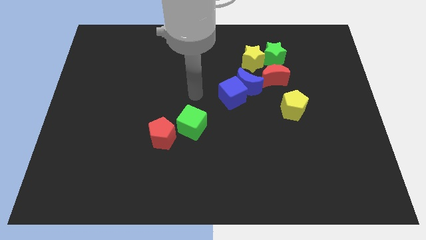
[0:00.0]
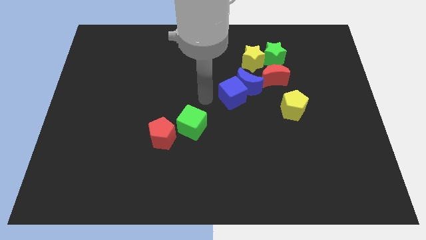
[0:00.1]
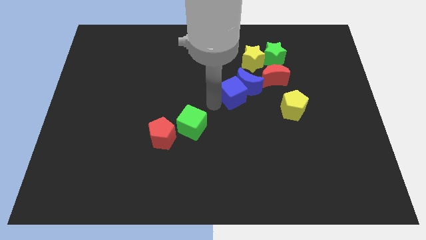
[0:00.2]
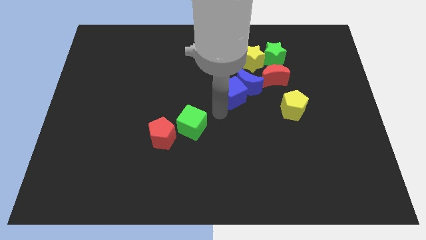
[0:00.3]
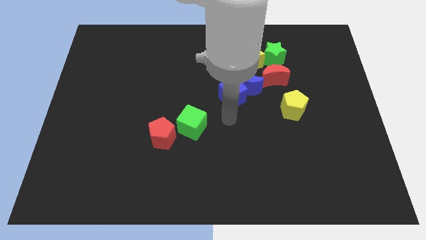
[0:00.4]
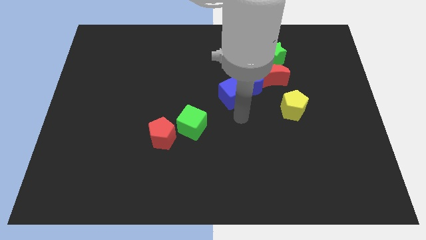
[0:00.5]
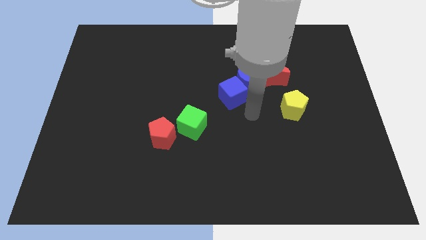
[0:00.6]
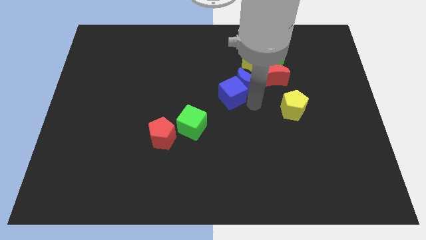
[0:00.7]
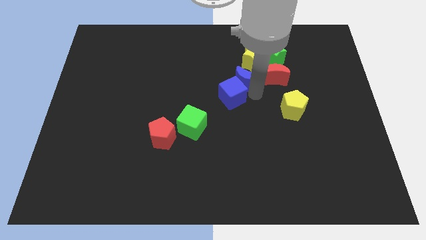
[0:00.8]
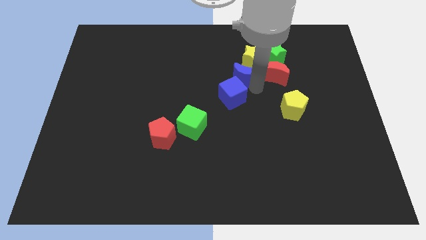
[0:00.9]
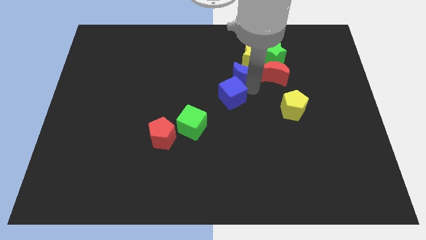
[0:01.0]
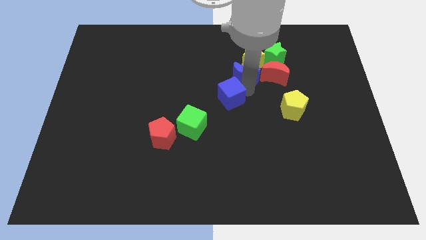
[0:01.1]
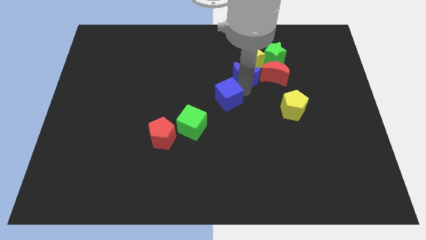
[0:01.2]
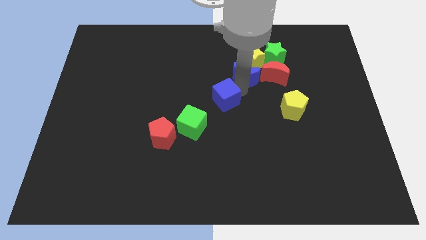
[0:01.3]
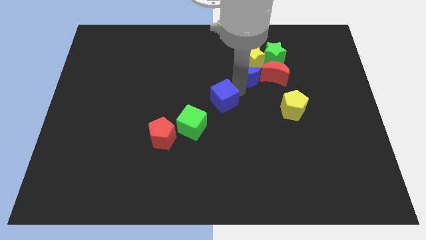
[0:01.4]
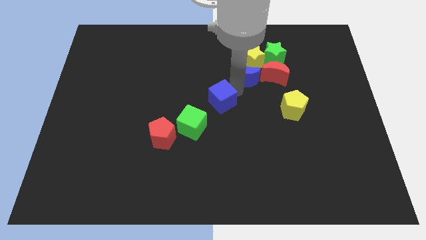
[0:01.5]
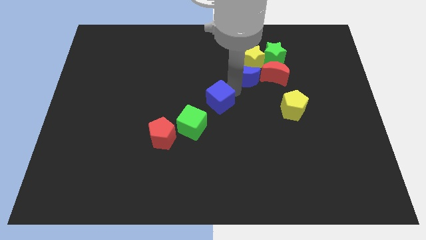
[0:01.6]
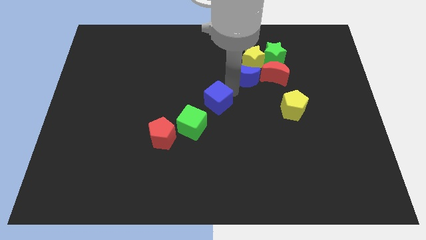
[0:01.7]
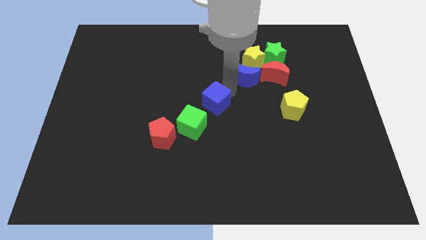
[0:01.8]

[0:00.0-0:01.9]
move the blue cube away from the blue moon

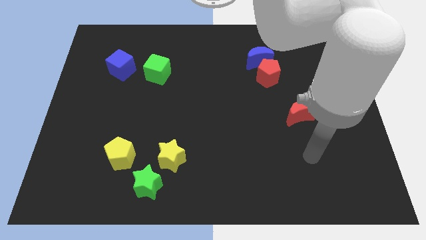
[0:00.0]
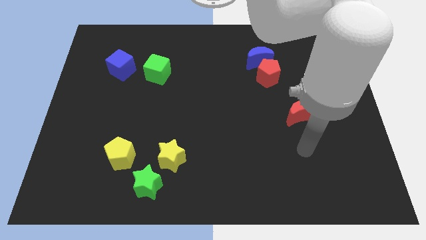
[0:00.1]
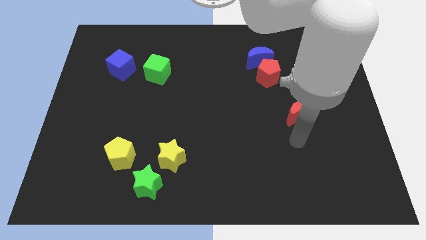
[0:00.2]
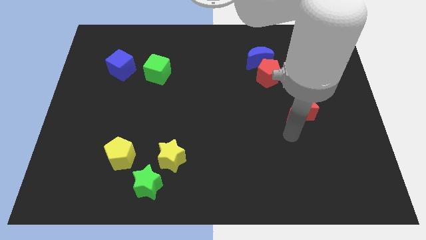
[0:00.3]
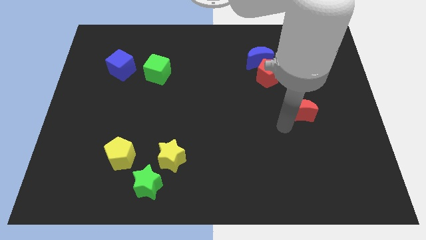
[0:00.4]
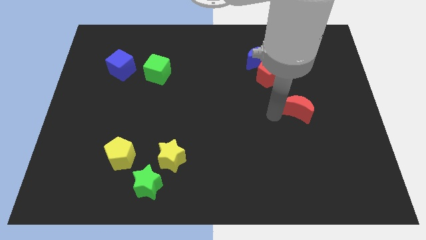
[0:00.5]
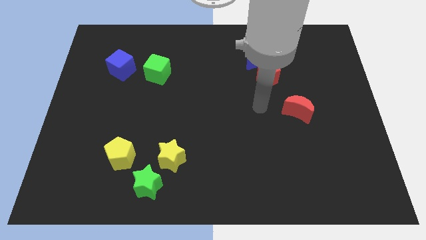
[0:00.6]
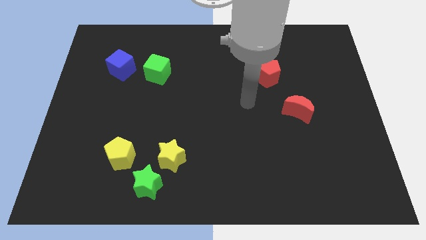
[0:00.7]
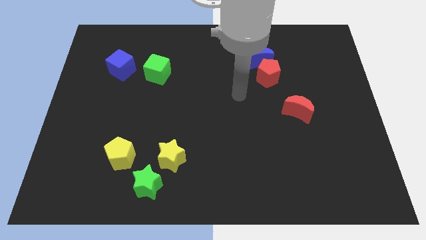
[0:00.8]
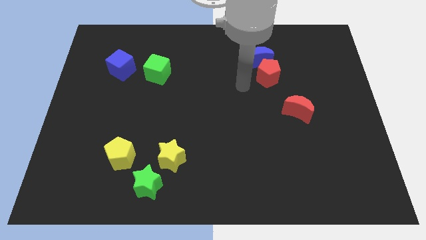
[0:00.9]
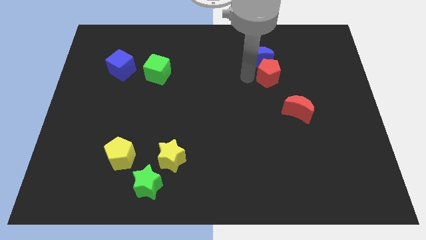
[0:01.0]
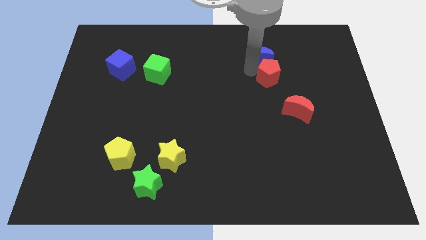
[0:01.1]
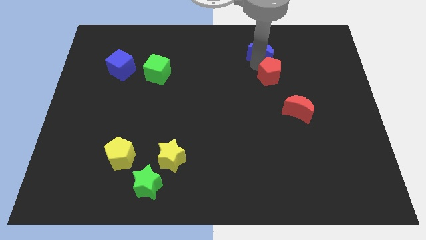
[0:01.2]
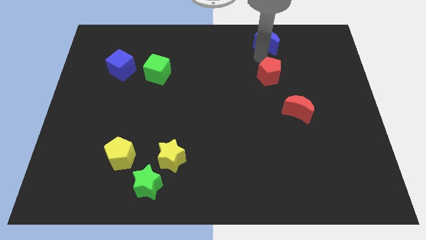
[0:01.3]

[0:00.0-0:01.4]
pull the red pentagon apart from the blue moon

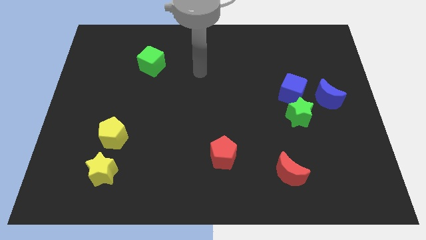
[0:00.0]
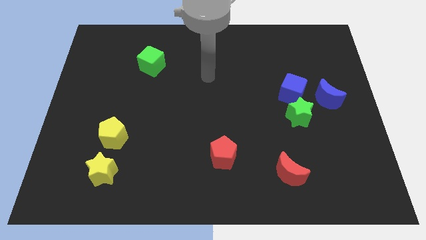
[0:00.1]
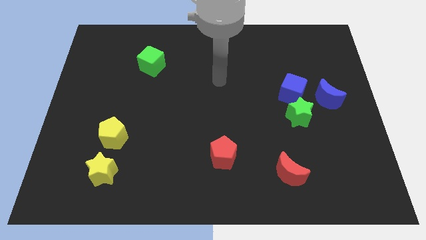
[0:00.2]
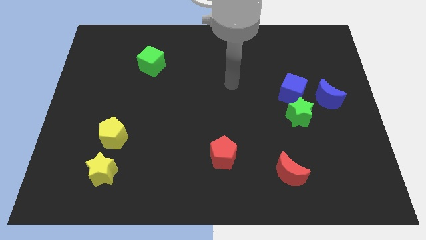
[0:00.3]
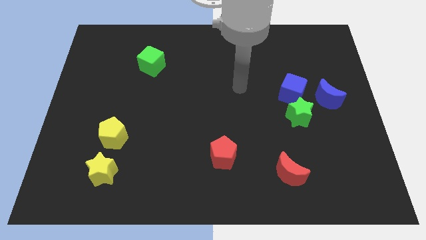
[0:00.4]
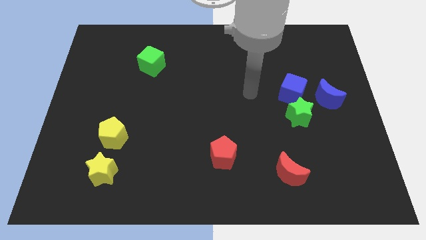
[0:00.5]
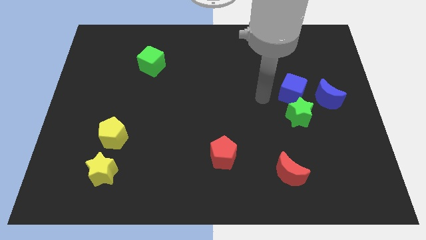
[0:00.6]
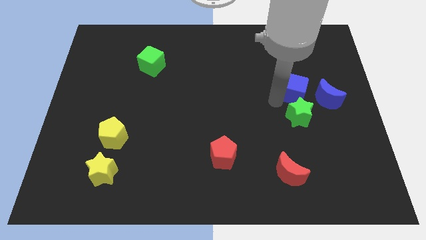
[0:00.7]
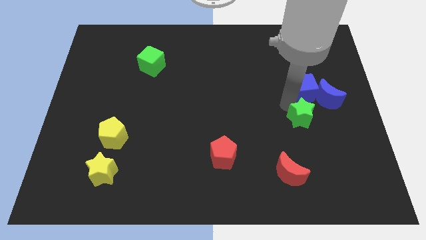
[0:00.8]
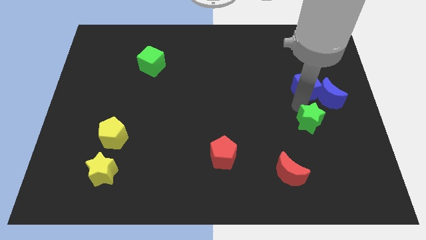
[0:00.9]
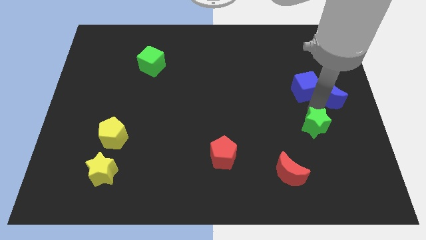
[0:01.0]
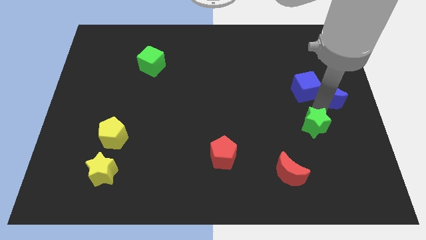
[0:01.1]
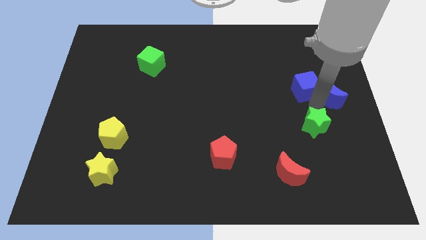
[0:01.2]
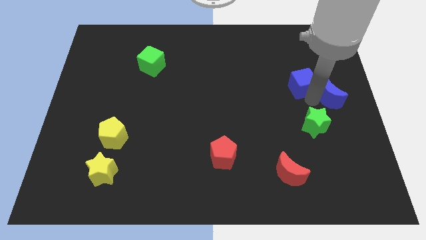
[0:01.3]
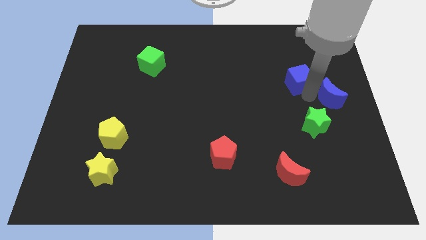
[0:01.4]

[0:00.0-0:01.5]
separate the blue cube from the green star and blue moon

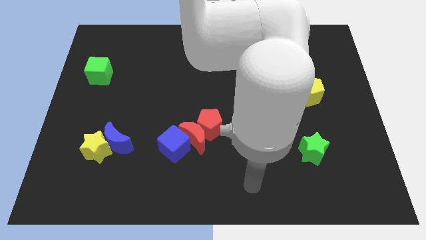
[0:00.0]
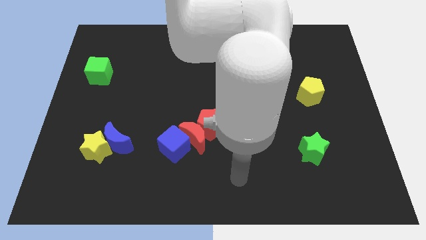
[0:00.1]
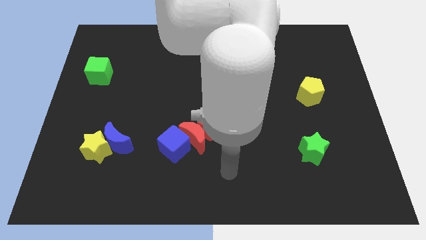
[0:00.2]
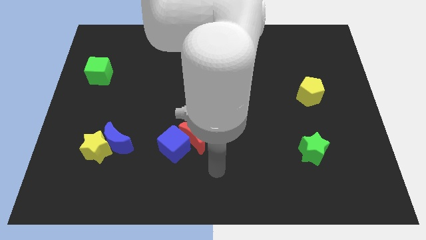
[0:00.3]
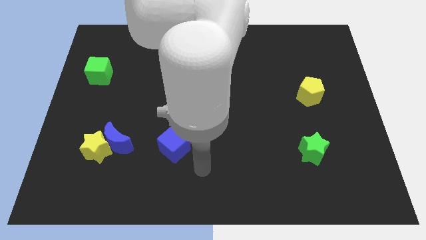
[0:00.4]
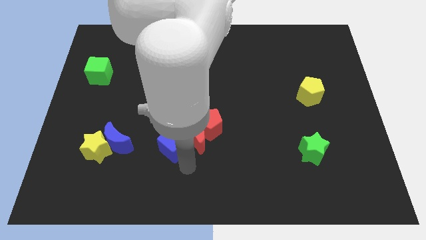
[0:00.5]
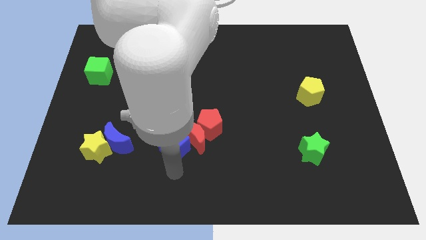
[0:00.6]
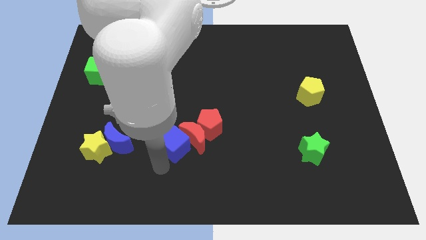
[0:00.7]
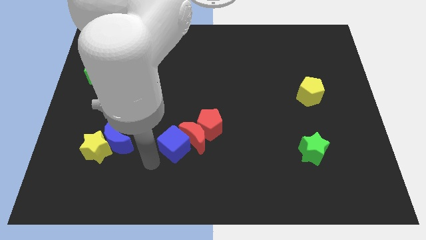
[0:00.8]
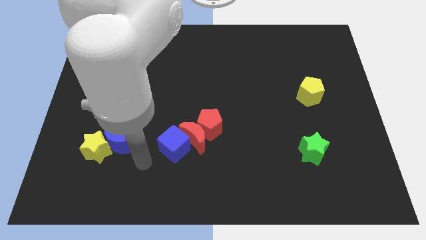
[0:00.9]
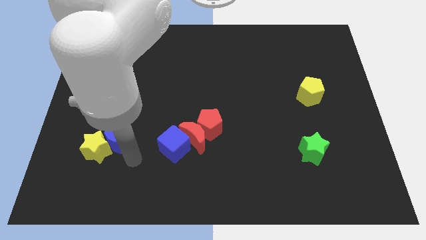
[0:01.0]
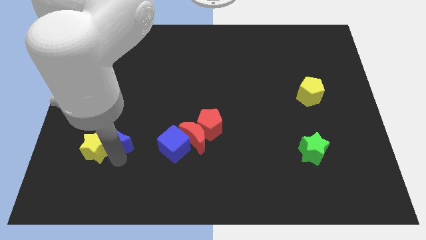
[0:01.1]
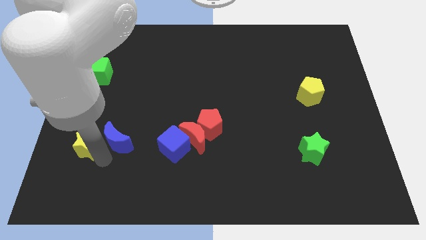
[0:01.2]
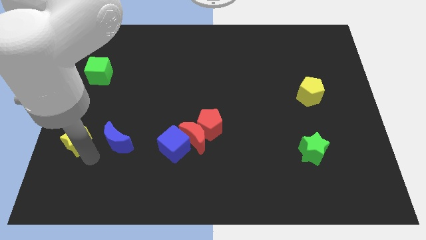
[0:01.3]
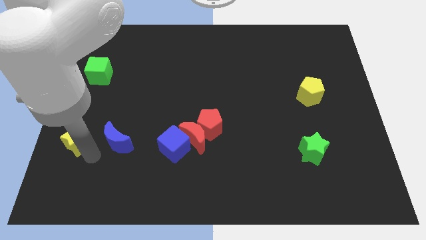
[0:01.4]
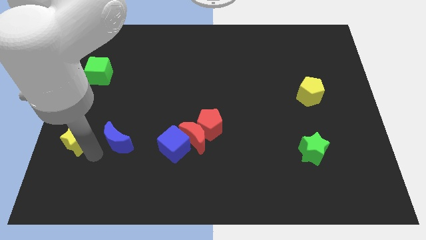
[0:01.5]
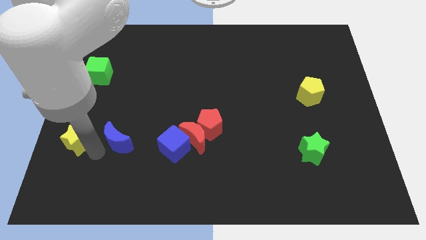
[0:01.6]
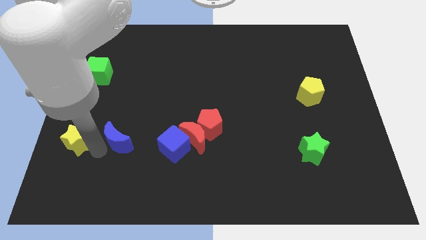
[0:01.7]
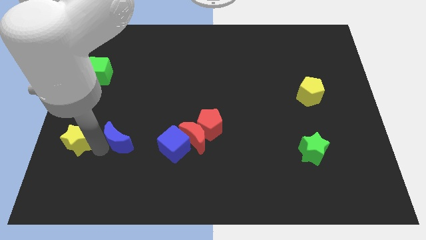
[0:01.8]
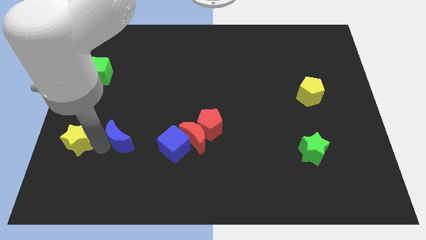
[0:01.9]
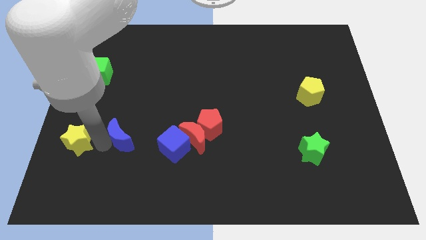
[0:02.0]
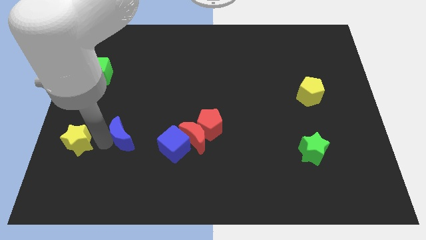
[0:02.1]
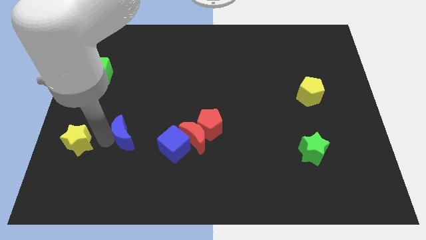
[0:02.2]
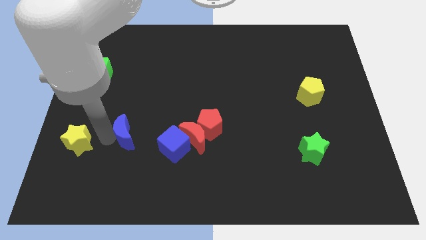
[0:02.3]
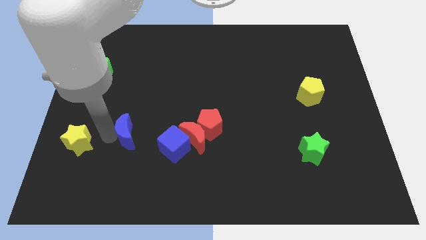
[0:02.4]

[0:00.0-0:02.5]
separate the blue moon from the yellow star

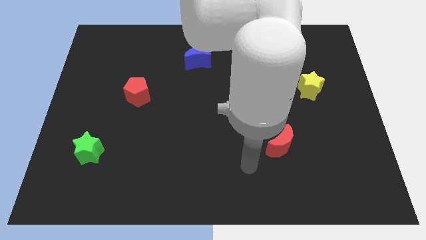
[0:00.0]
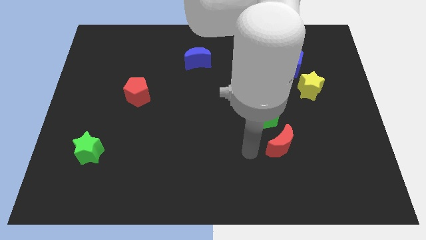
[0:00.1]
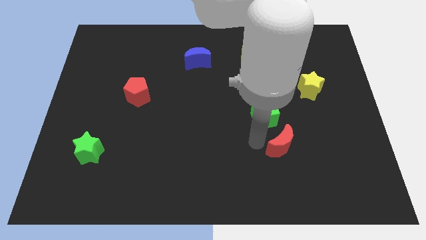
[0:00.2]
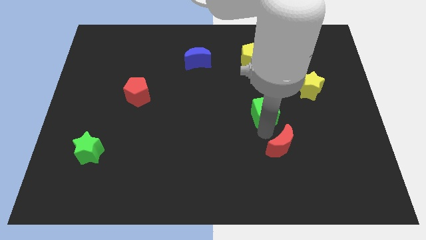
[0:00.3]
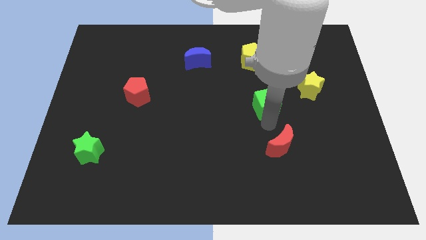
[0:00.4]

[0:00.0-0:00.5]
separate the red moon from the green cube

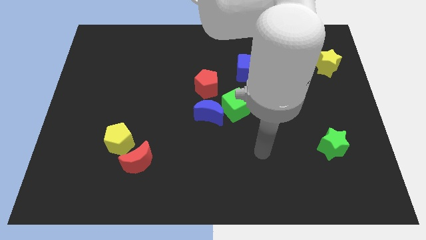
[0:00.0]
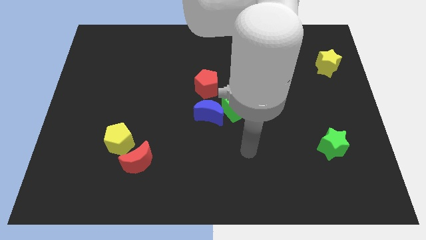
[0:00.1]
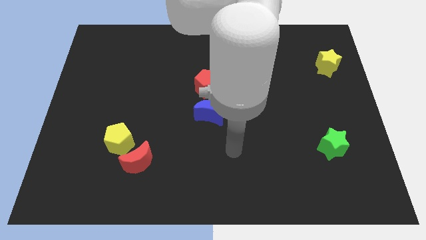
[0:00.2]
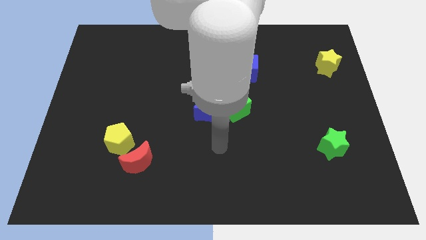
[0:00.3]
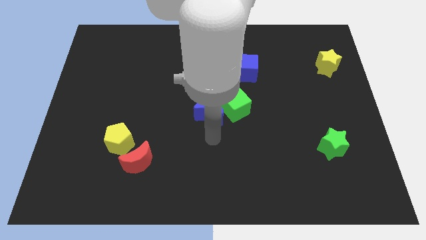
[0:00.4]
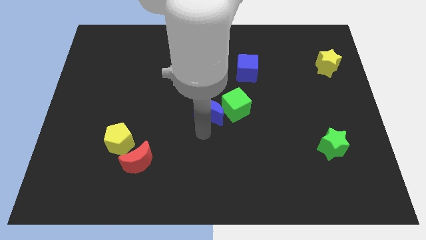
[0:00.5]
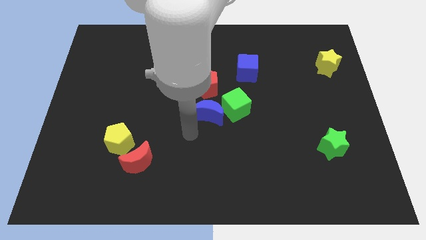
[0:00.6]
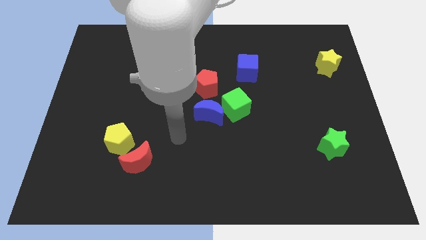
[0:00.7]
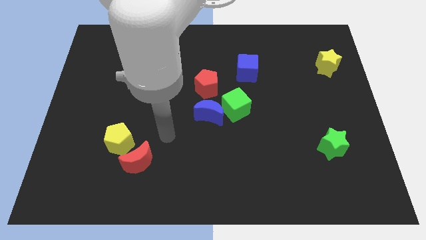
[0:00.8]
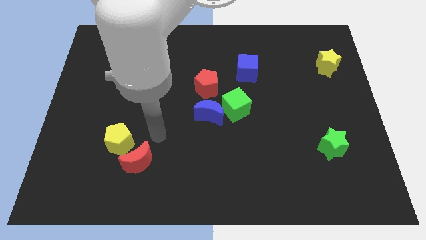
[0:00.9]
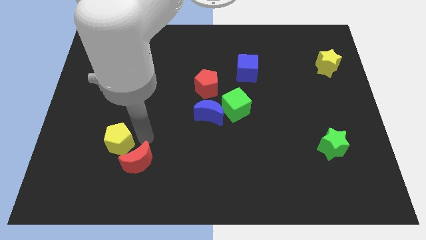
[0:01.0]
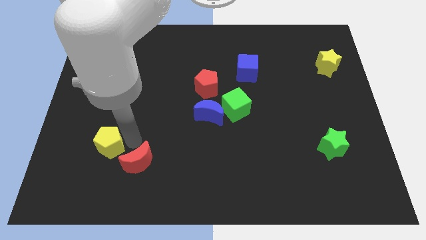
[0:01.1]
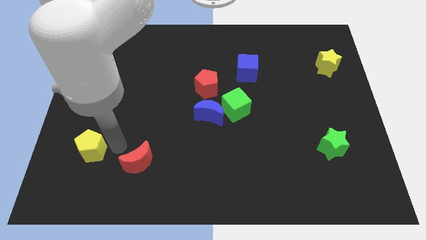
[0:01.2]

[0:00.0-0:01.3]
separate the red moon from the yellow pentagon
